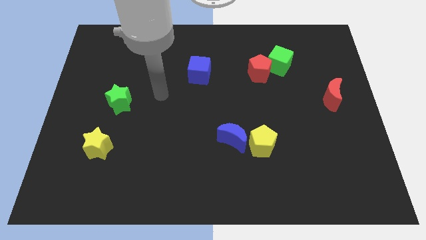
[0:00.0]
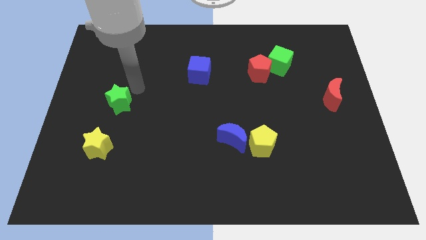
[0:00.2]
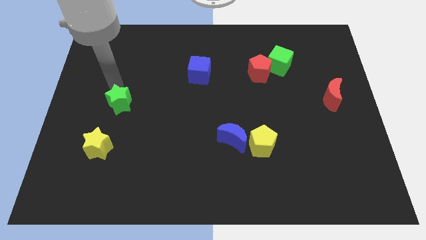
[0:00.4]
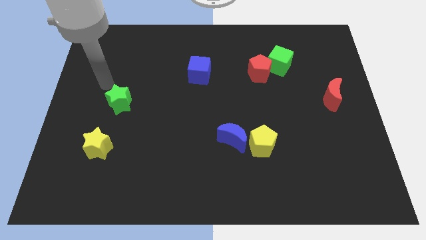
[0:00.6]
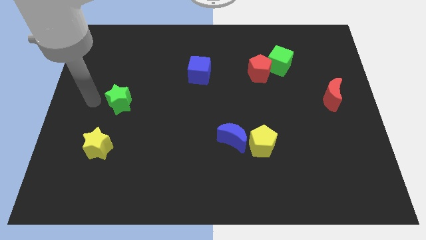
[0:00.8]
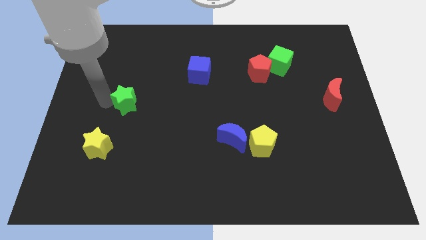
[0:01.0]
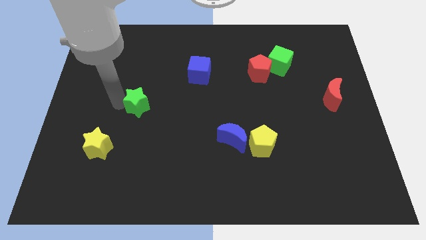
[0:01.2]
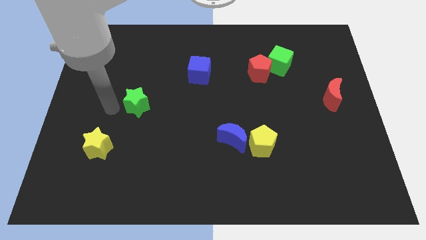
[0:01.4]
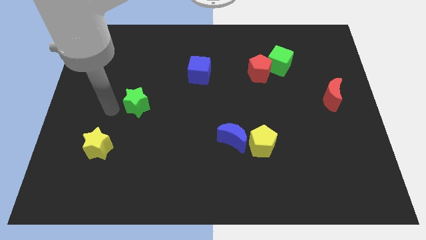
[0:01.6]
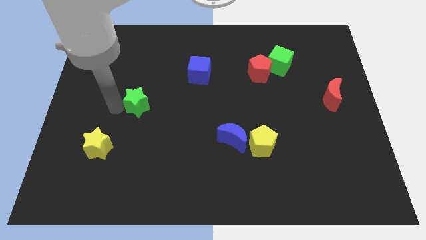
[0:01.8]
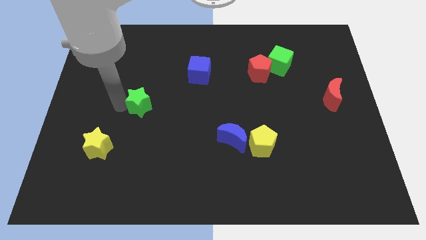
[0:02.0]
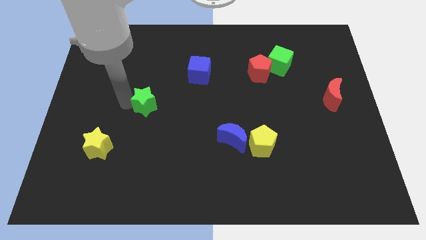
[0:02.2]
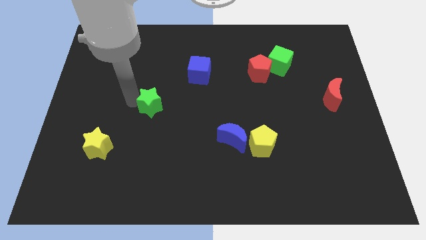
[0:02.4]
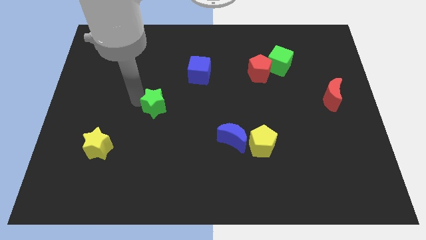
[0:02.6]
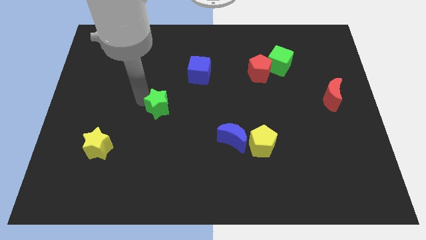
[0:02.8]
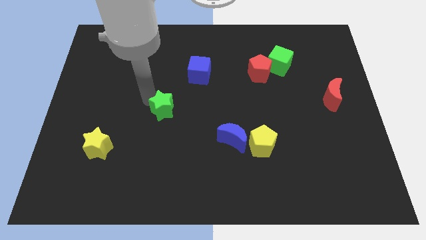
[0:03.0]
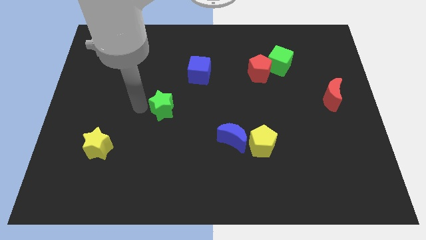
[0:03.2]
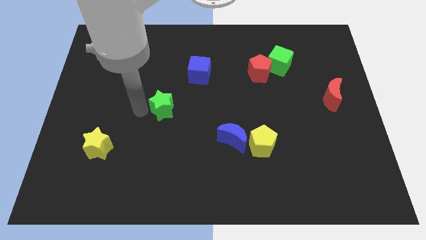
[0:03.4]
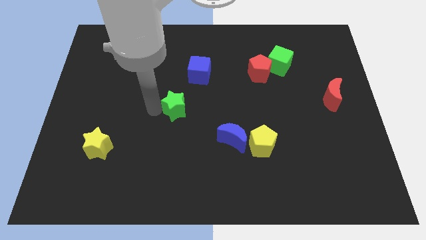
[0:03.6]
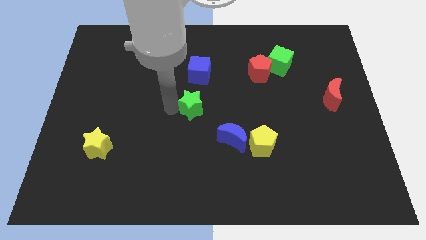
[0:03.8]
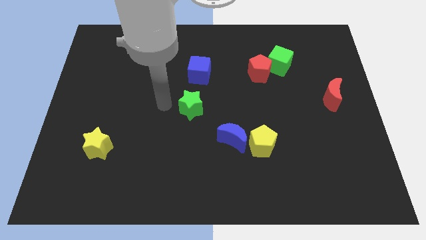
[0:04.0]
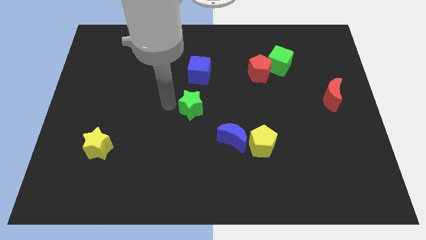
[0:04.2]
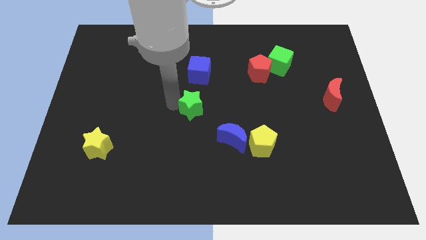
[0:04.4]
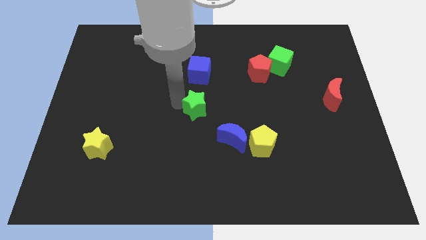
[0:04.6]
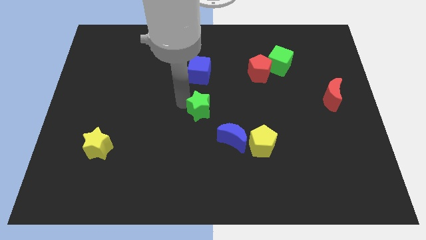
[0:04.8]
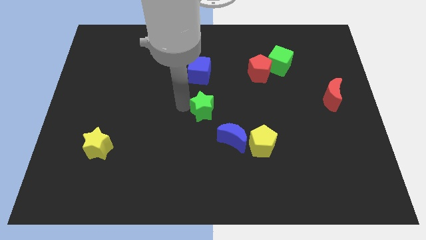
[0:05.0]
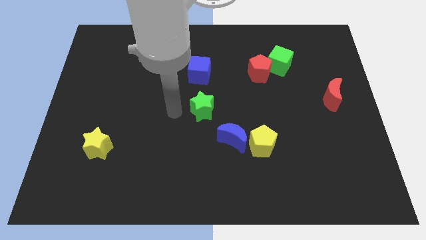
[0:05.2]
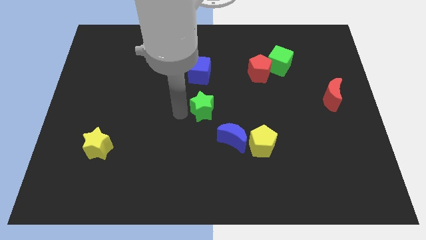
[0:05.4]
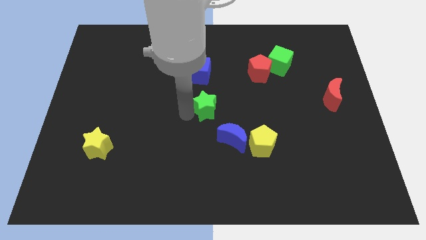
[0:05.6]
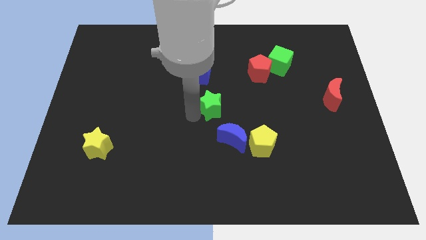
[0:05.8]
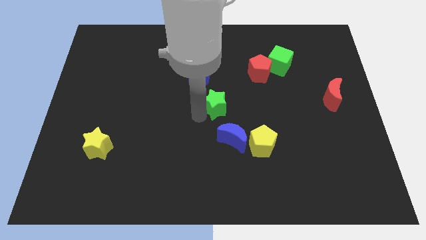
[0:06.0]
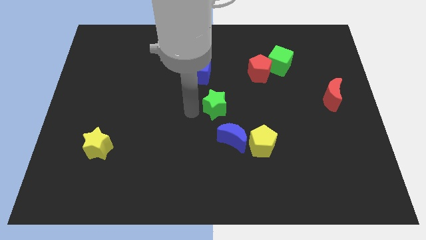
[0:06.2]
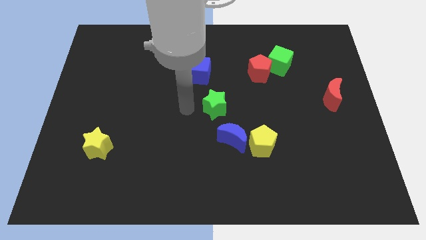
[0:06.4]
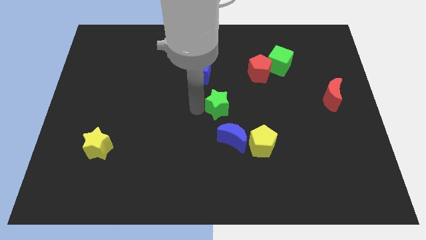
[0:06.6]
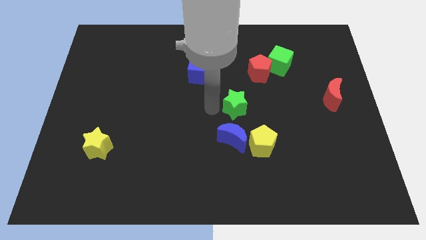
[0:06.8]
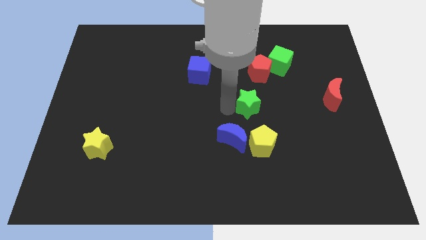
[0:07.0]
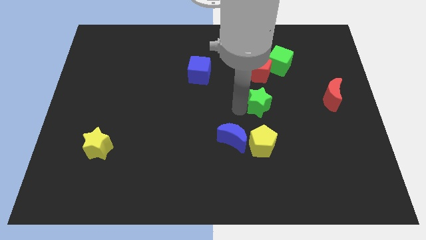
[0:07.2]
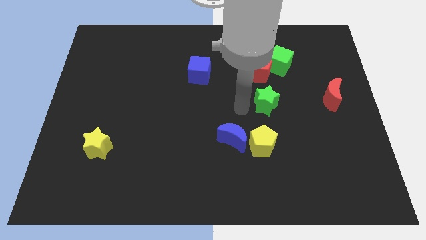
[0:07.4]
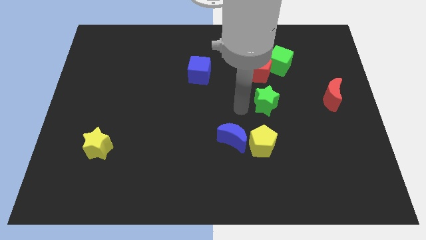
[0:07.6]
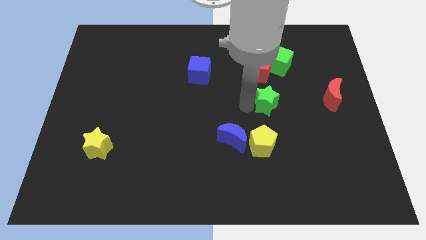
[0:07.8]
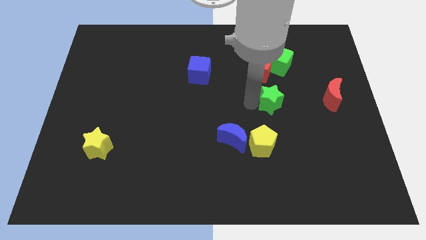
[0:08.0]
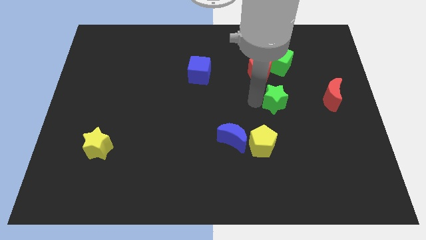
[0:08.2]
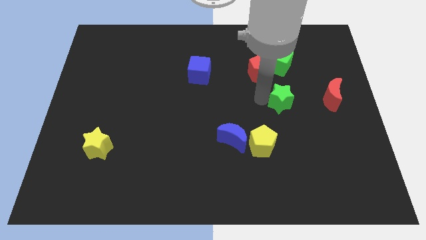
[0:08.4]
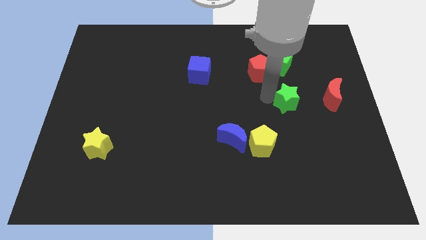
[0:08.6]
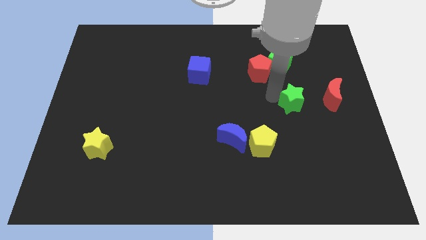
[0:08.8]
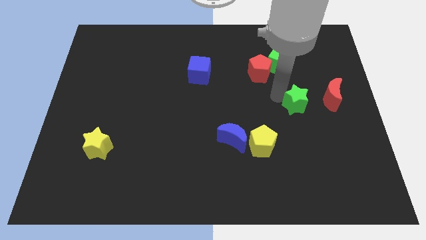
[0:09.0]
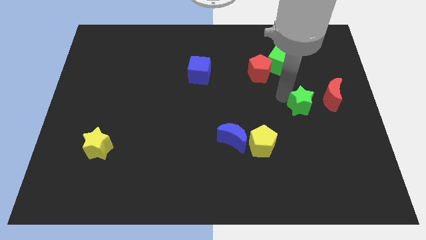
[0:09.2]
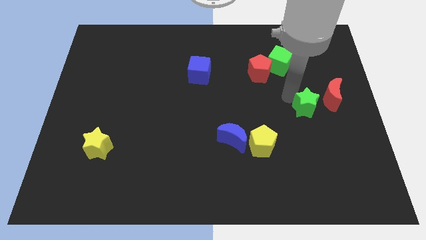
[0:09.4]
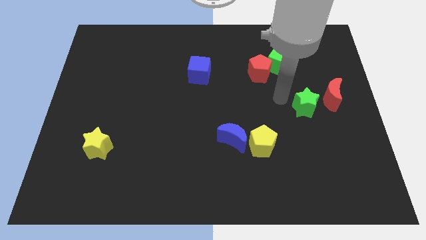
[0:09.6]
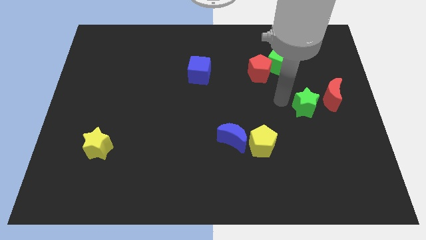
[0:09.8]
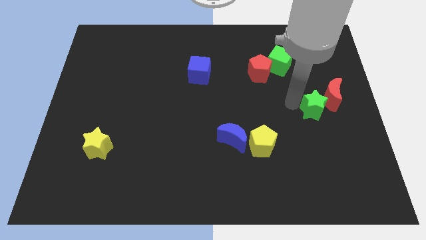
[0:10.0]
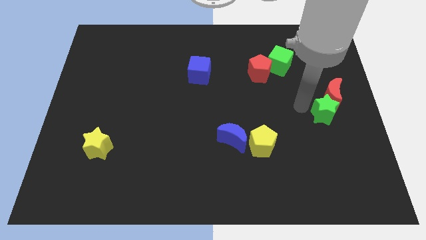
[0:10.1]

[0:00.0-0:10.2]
slide the green star to the right side of the board

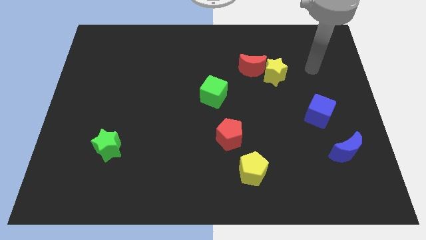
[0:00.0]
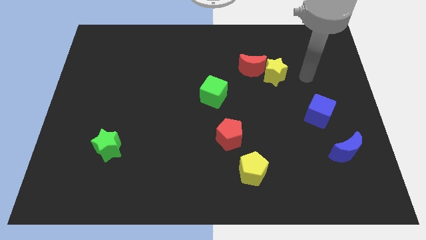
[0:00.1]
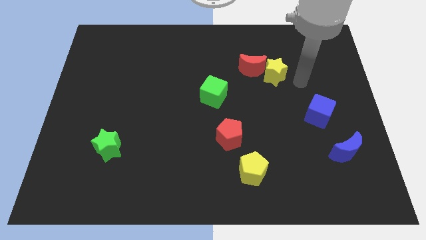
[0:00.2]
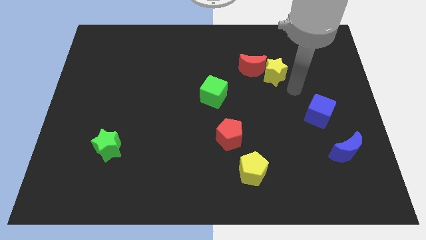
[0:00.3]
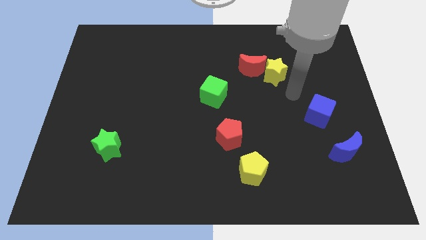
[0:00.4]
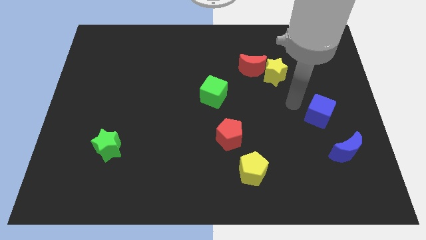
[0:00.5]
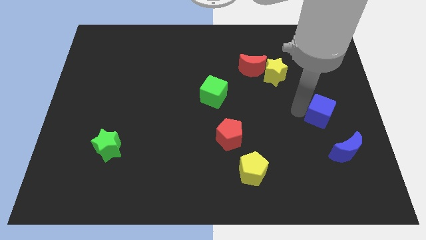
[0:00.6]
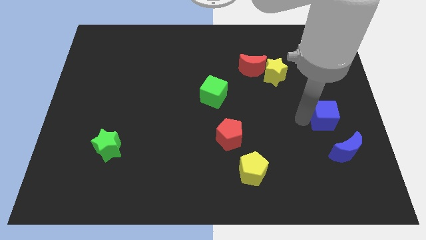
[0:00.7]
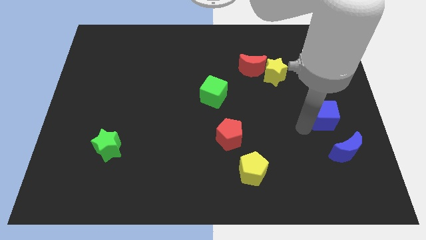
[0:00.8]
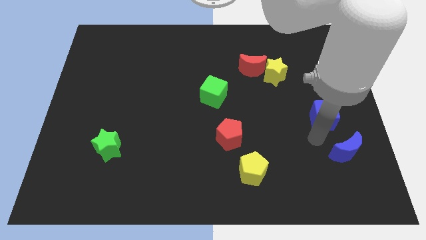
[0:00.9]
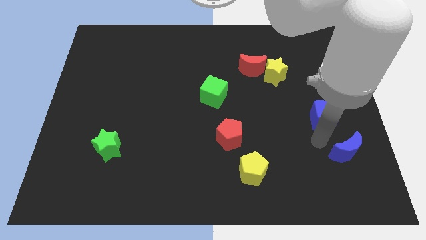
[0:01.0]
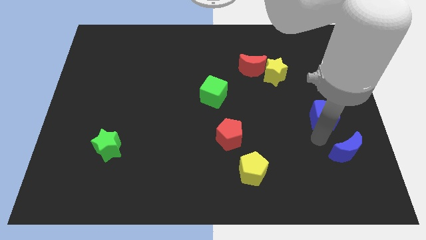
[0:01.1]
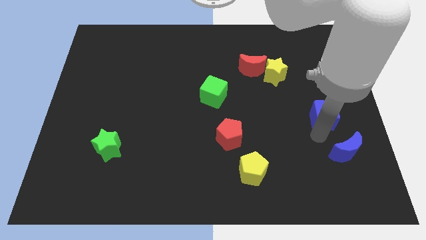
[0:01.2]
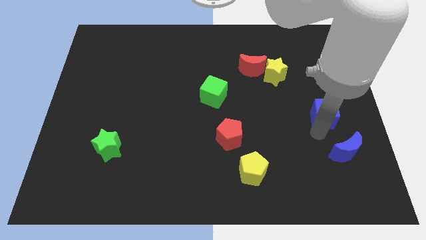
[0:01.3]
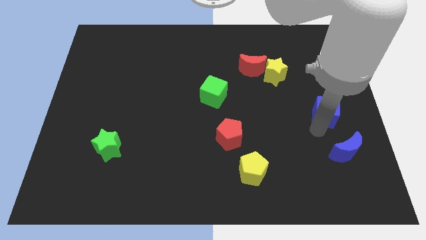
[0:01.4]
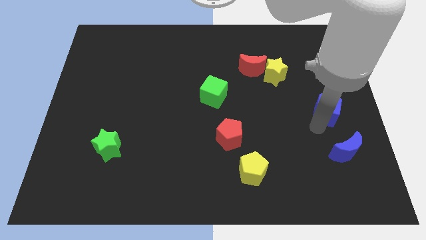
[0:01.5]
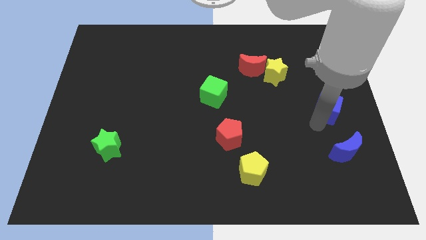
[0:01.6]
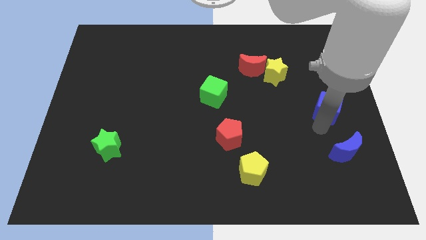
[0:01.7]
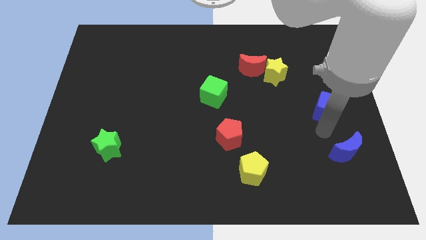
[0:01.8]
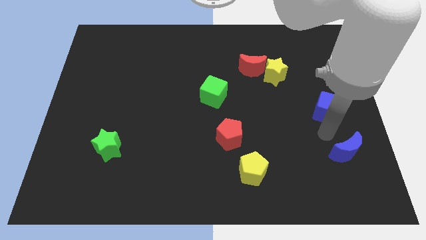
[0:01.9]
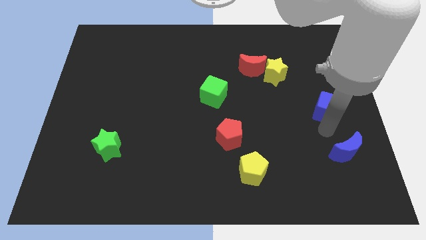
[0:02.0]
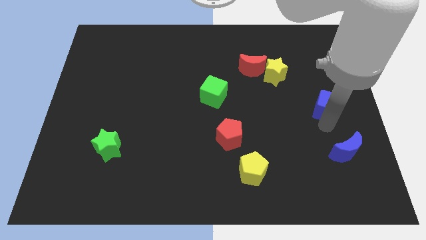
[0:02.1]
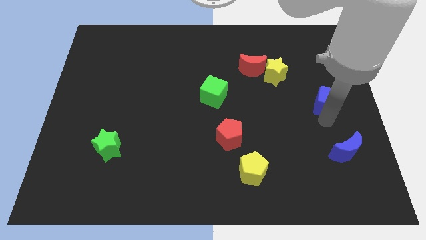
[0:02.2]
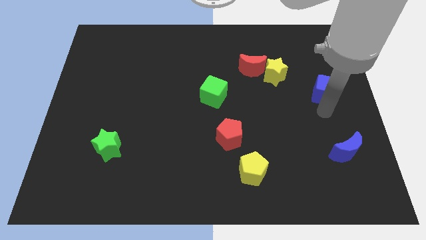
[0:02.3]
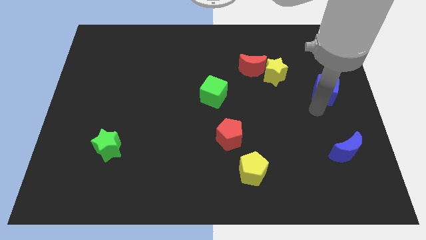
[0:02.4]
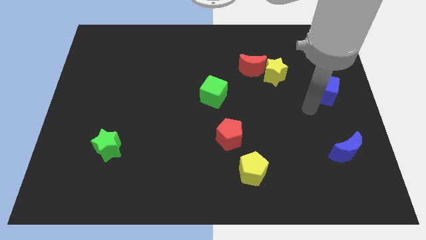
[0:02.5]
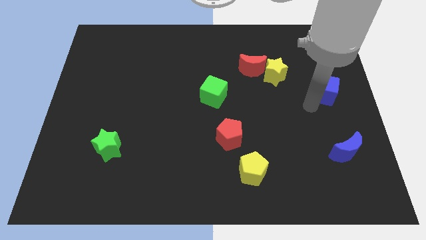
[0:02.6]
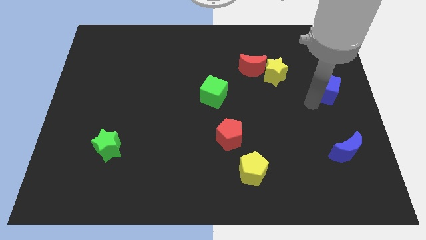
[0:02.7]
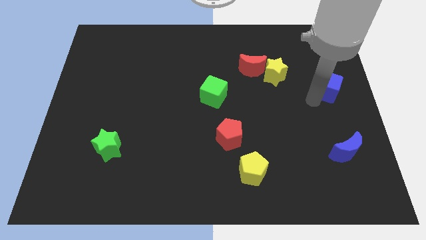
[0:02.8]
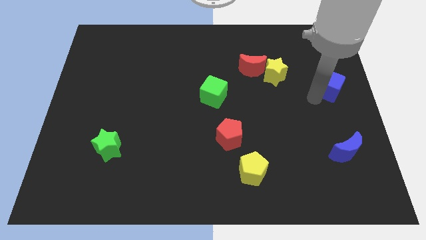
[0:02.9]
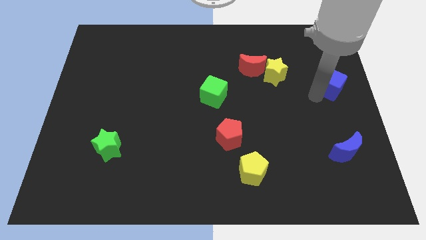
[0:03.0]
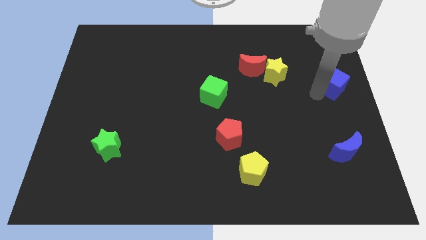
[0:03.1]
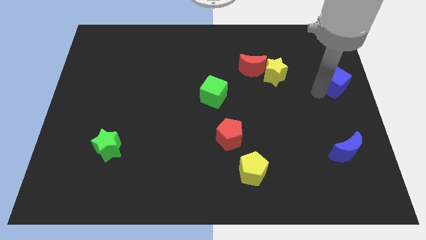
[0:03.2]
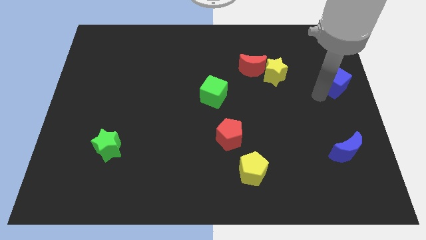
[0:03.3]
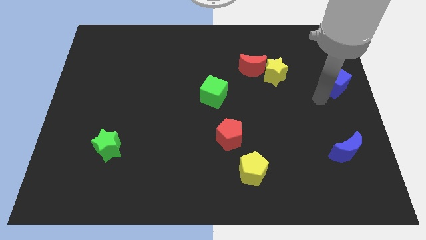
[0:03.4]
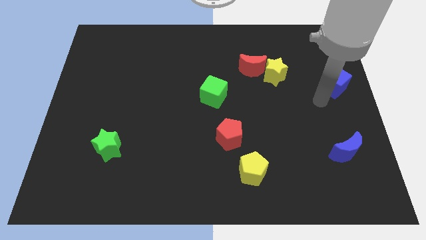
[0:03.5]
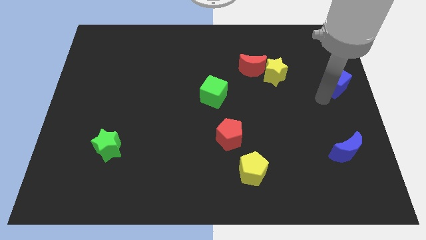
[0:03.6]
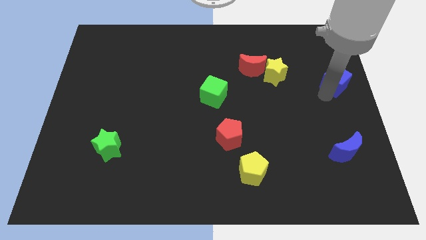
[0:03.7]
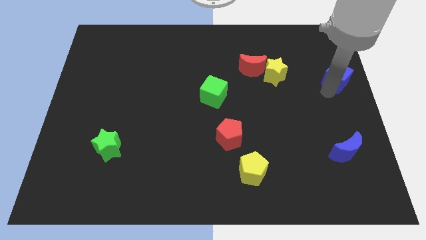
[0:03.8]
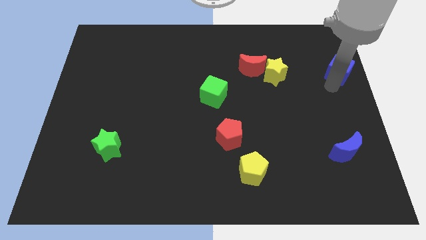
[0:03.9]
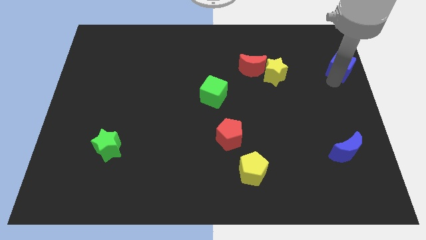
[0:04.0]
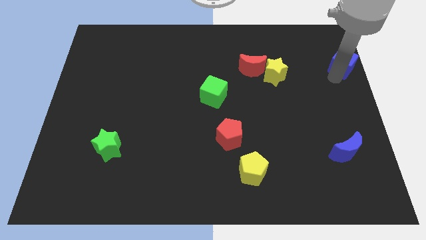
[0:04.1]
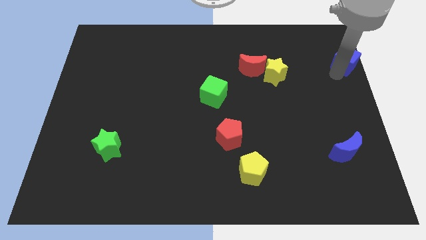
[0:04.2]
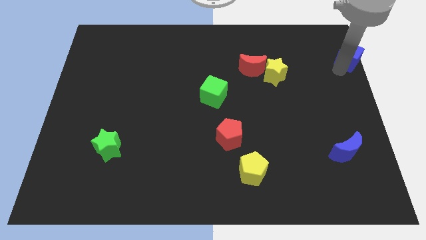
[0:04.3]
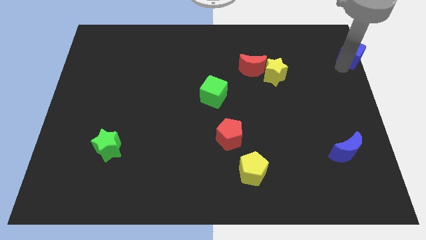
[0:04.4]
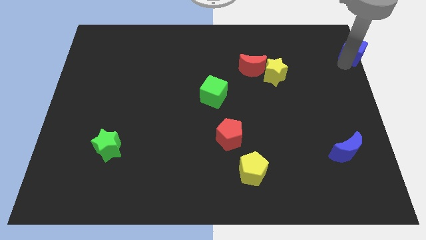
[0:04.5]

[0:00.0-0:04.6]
push the blue cube to the top right corner
